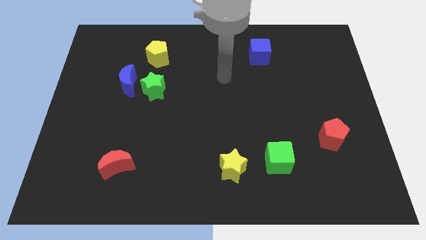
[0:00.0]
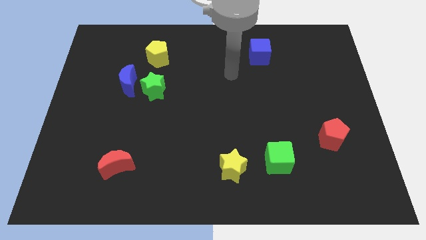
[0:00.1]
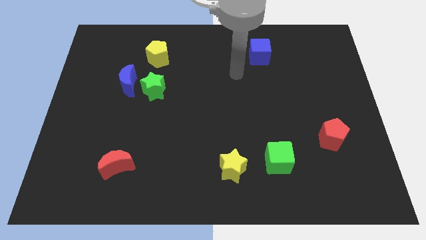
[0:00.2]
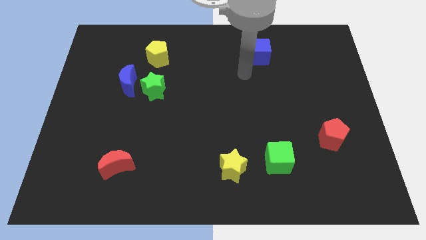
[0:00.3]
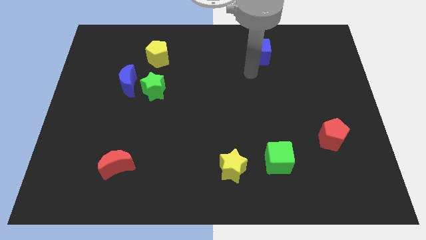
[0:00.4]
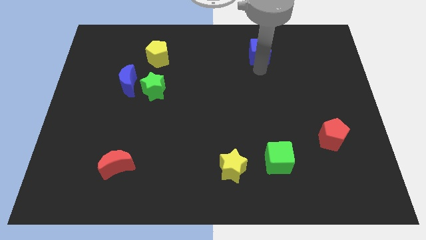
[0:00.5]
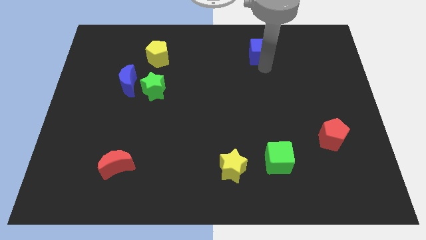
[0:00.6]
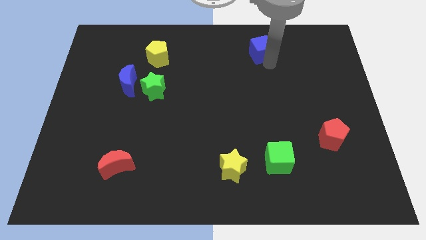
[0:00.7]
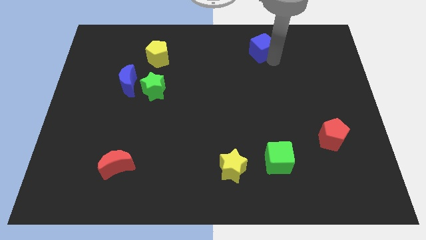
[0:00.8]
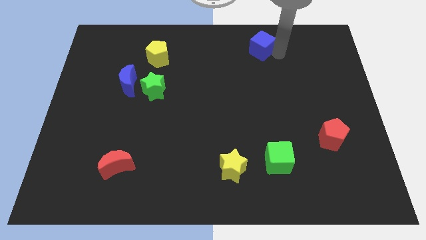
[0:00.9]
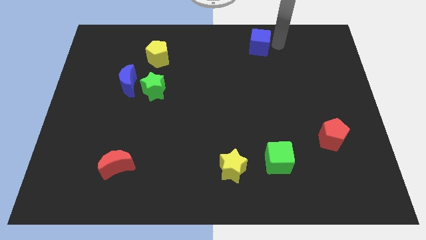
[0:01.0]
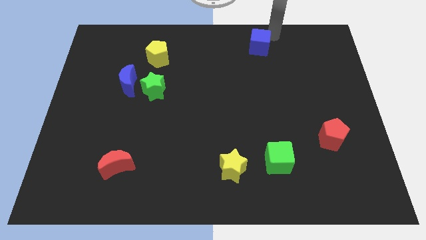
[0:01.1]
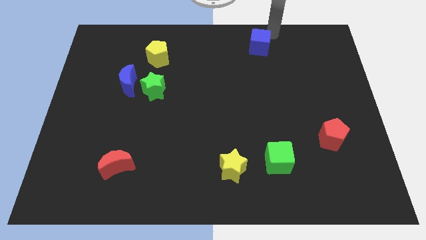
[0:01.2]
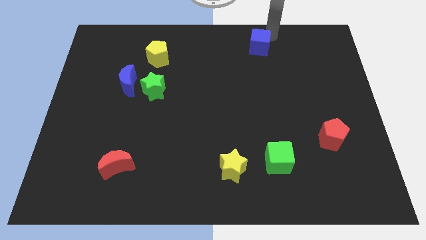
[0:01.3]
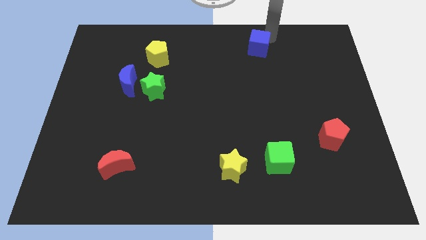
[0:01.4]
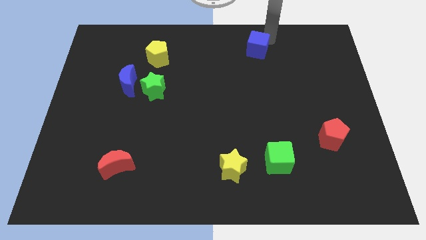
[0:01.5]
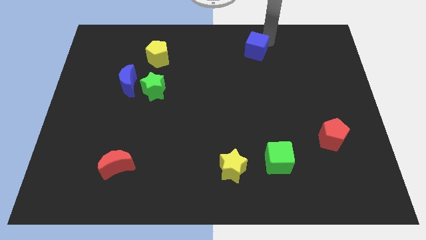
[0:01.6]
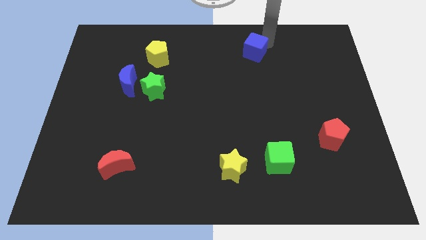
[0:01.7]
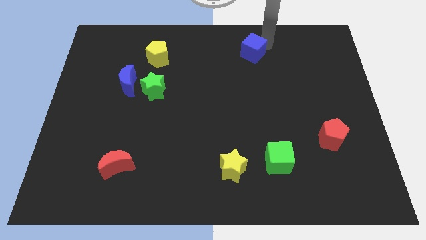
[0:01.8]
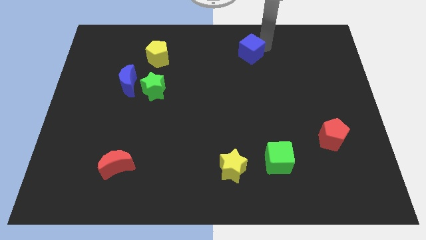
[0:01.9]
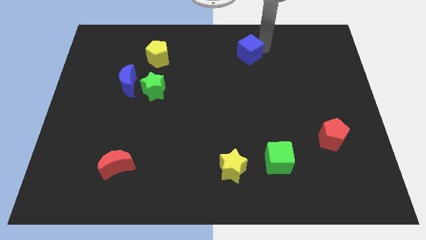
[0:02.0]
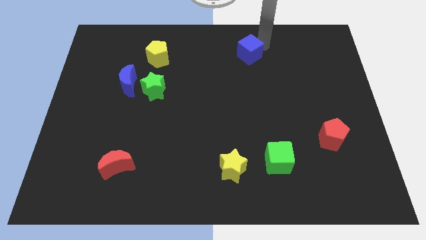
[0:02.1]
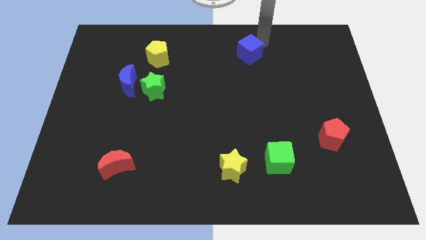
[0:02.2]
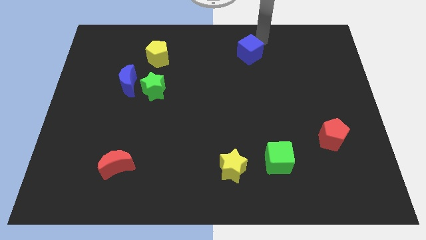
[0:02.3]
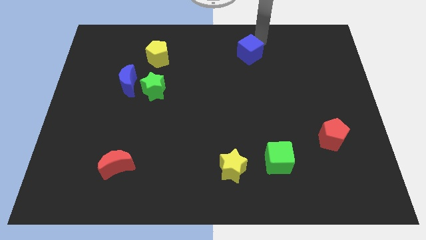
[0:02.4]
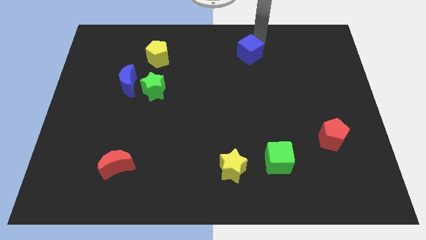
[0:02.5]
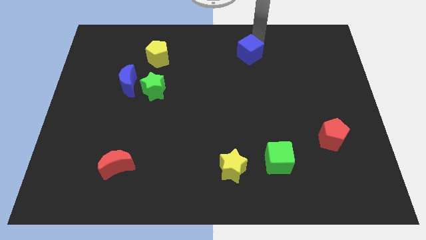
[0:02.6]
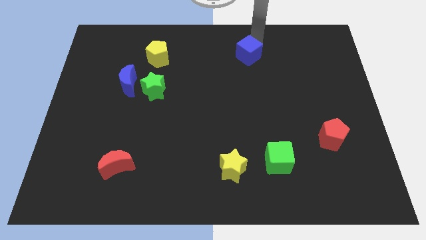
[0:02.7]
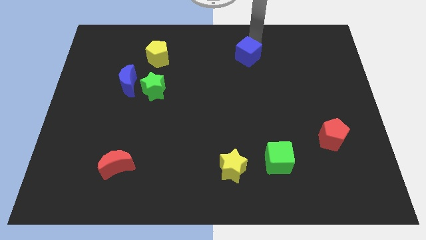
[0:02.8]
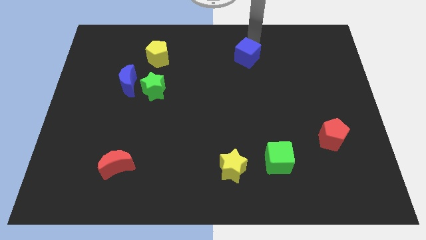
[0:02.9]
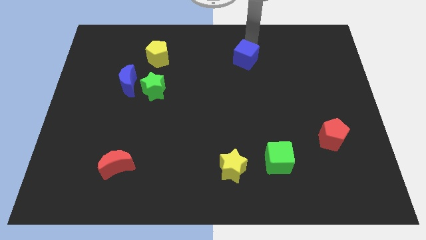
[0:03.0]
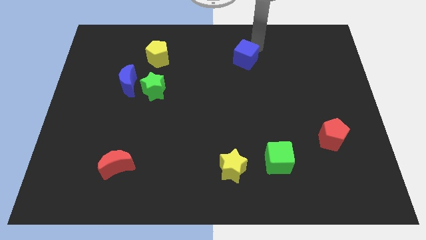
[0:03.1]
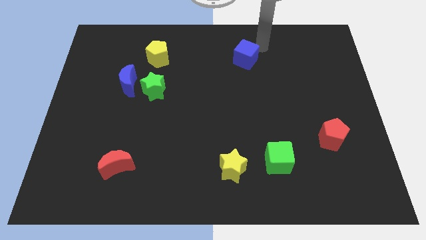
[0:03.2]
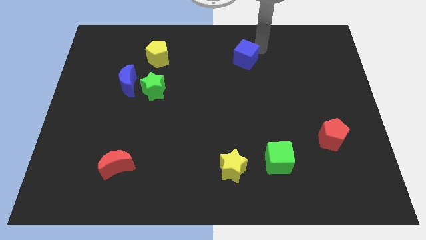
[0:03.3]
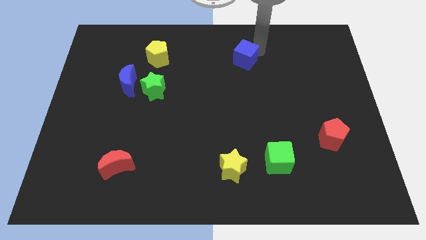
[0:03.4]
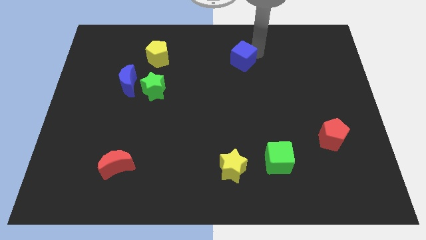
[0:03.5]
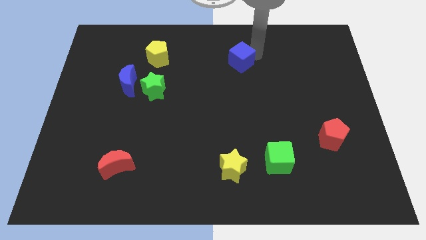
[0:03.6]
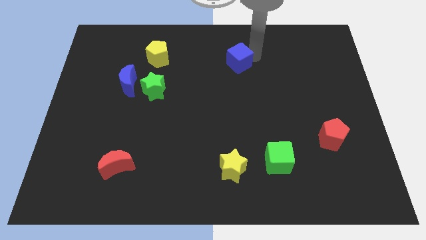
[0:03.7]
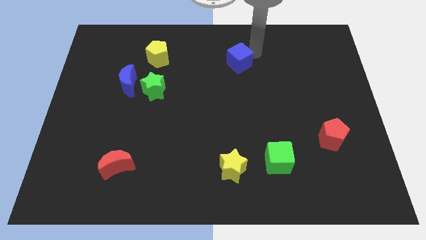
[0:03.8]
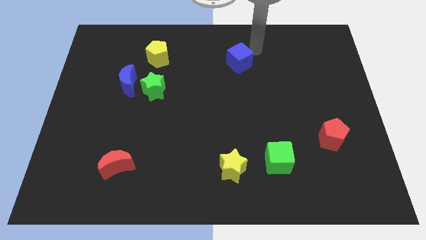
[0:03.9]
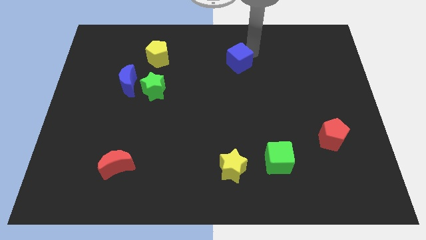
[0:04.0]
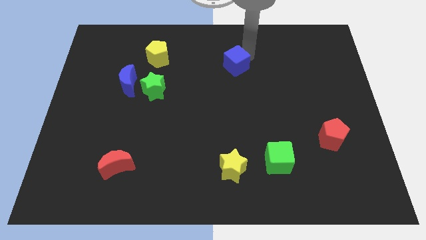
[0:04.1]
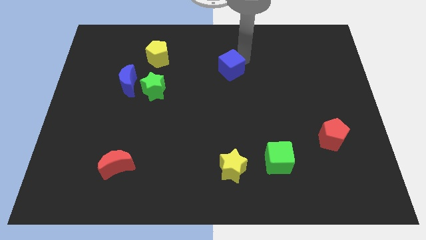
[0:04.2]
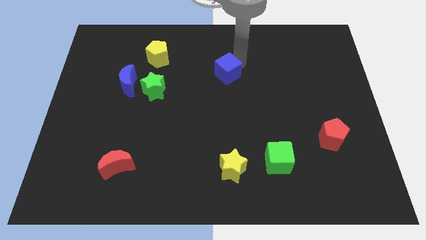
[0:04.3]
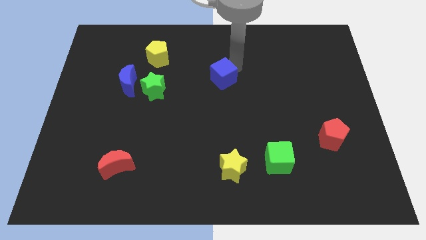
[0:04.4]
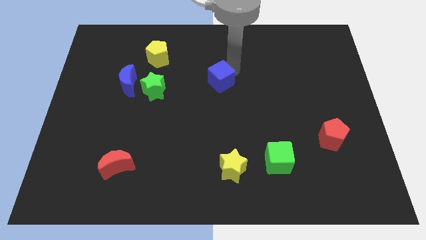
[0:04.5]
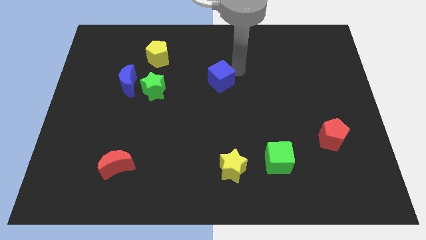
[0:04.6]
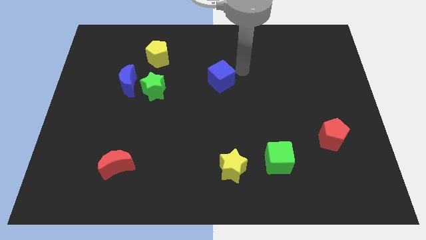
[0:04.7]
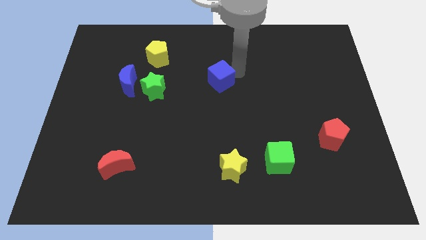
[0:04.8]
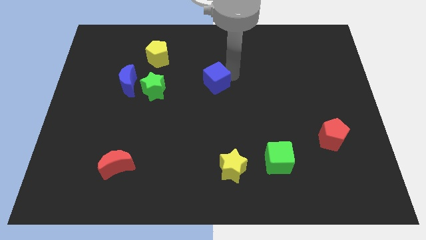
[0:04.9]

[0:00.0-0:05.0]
put the blue cube just right of the green star

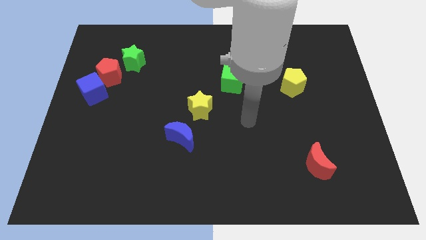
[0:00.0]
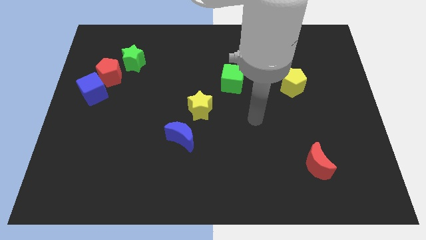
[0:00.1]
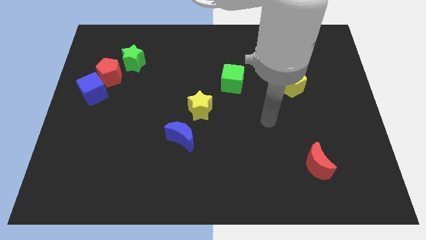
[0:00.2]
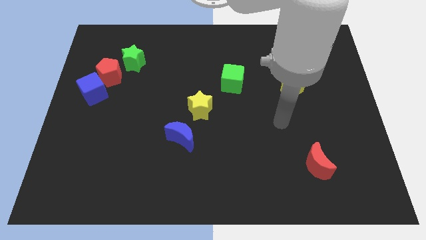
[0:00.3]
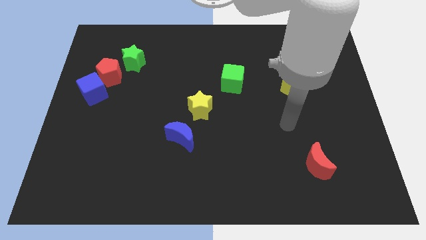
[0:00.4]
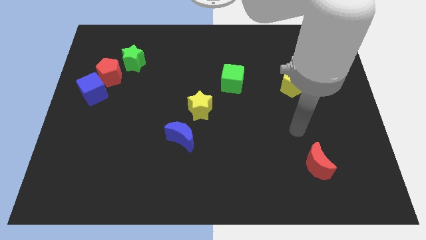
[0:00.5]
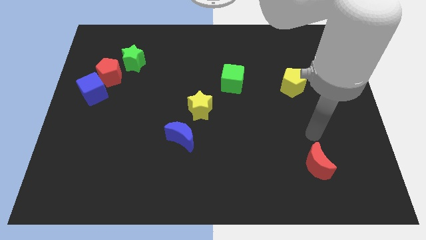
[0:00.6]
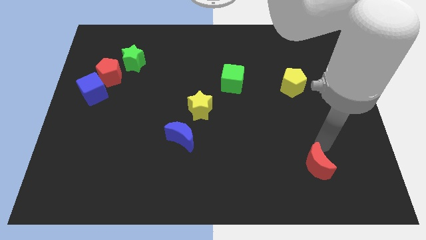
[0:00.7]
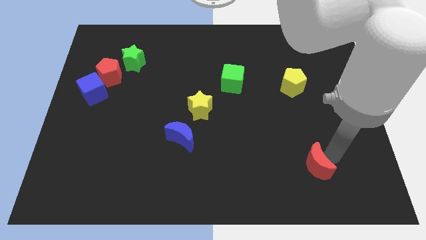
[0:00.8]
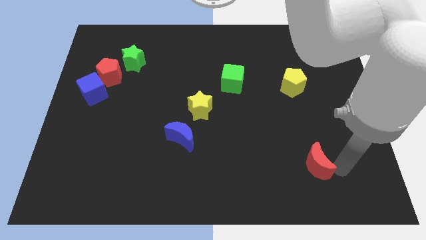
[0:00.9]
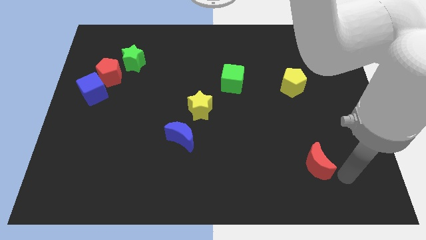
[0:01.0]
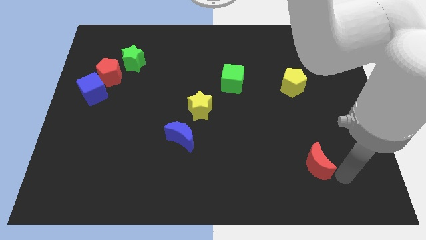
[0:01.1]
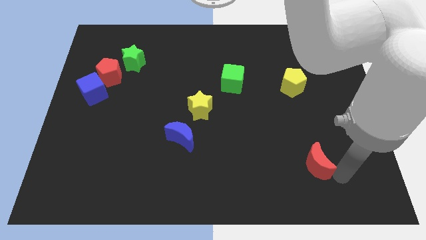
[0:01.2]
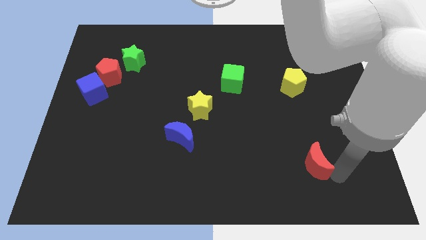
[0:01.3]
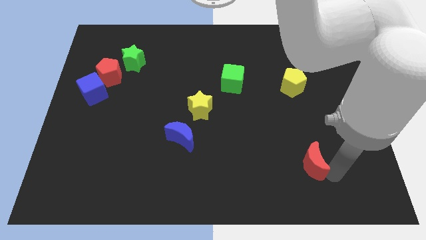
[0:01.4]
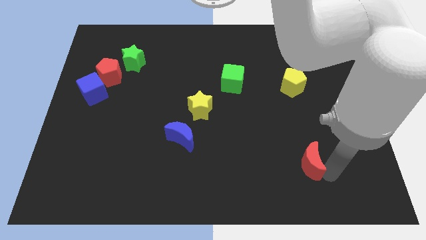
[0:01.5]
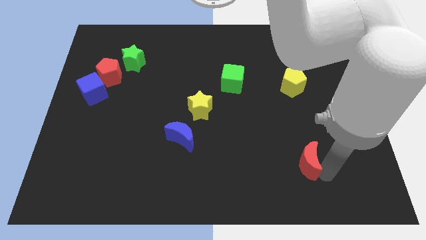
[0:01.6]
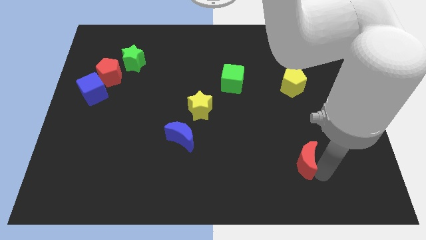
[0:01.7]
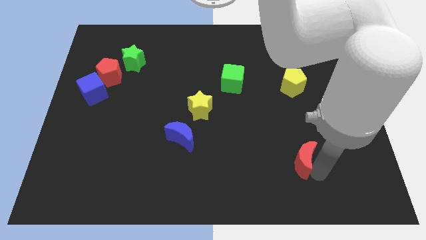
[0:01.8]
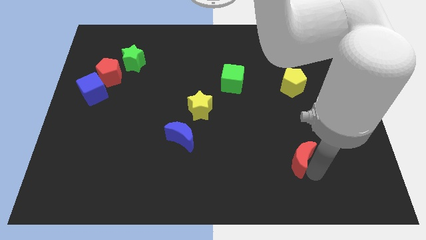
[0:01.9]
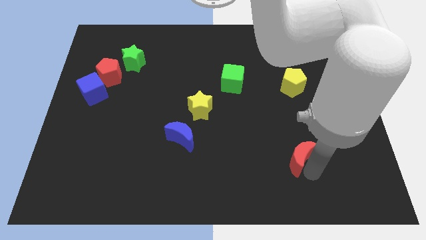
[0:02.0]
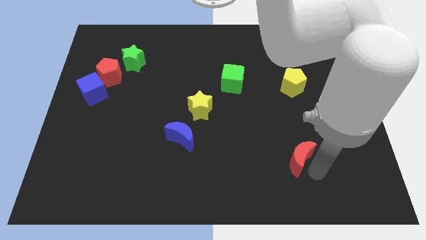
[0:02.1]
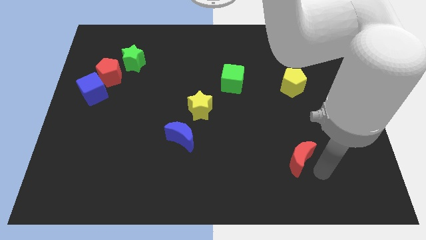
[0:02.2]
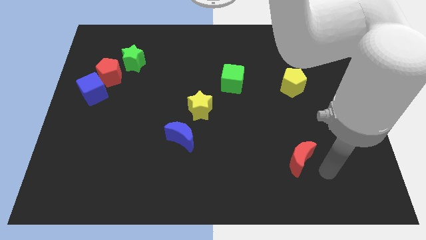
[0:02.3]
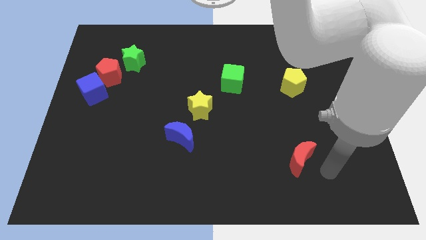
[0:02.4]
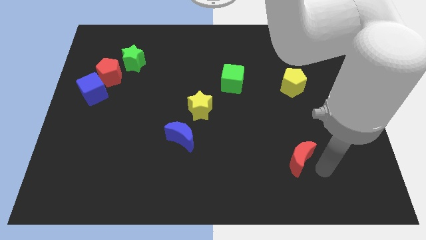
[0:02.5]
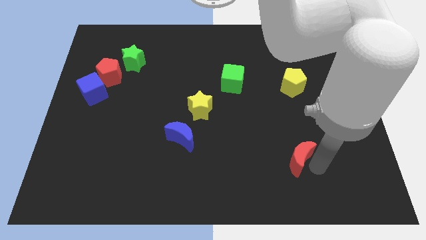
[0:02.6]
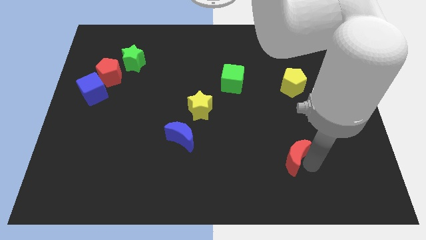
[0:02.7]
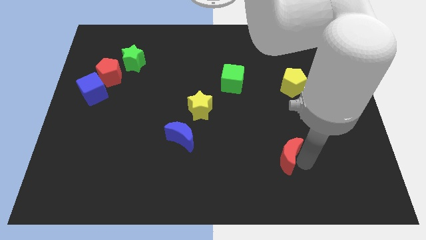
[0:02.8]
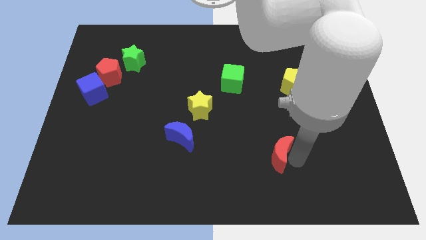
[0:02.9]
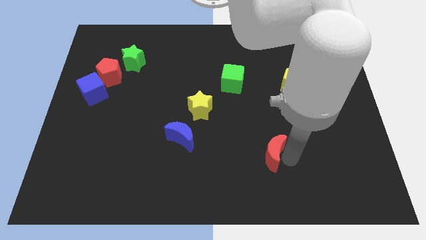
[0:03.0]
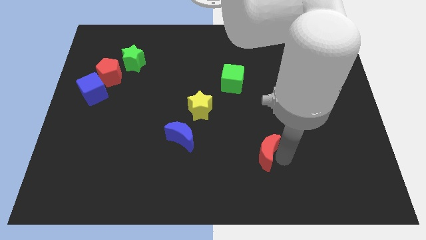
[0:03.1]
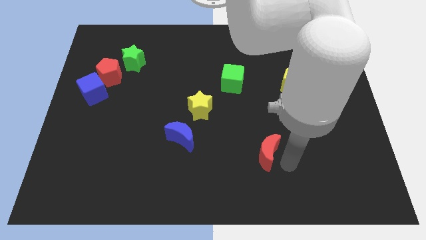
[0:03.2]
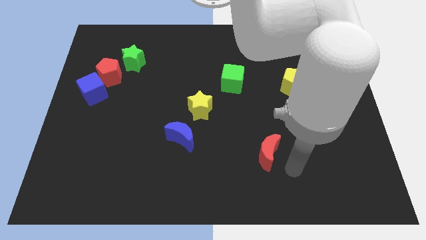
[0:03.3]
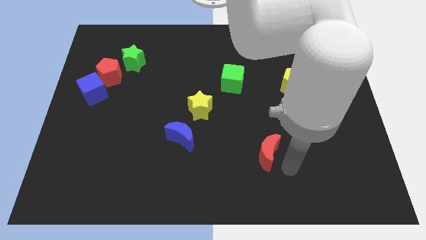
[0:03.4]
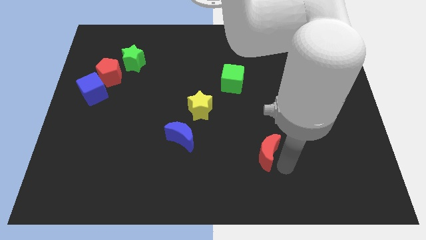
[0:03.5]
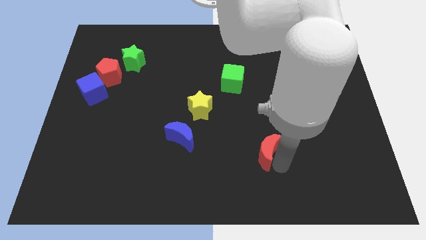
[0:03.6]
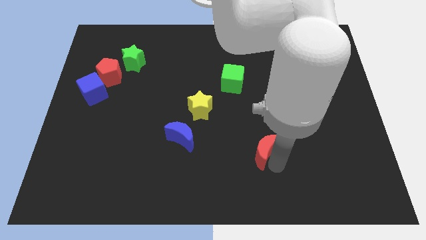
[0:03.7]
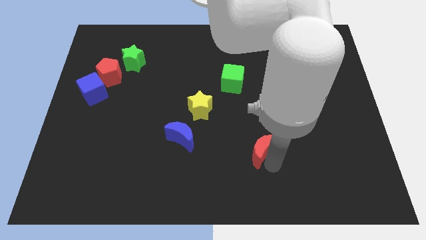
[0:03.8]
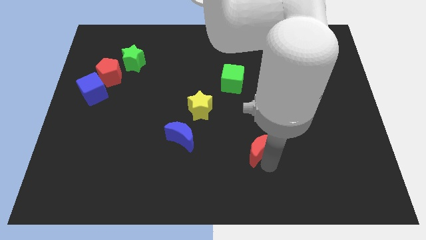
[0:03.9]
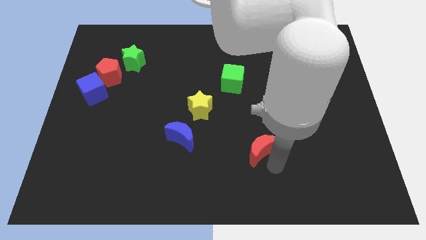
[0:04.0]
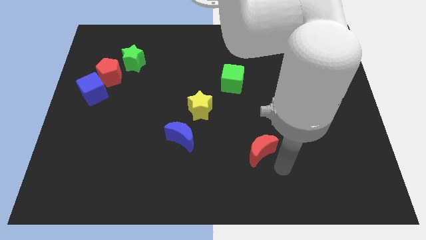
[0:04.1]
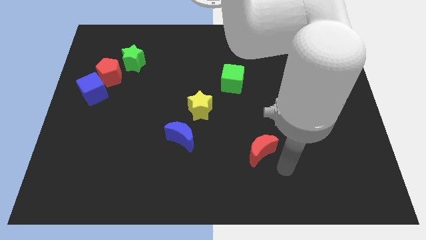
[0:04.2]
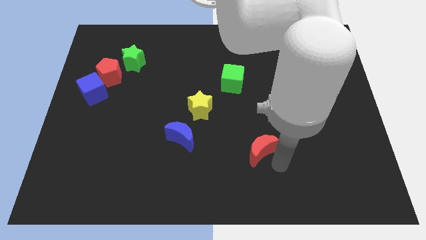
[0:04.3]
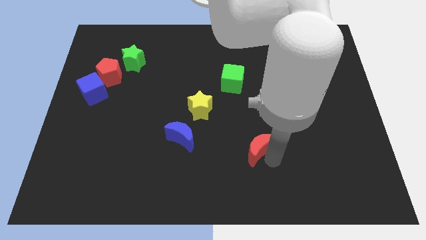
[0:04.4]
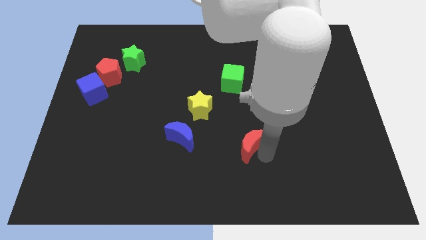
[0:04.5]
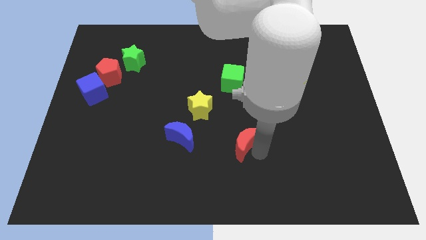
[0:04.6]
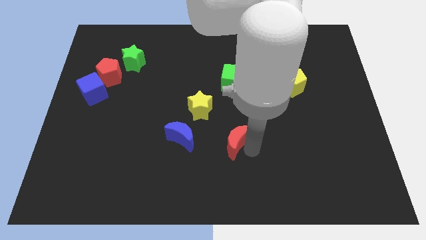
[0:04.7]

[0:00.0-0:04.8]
slide the red moon to the bottom right of the yellow star
